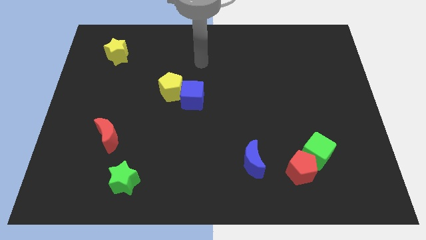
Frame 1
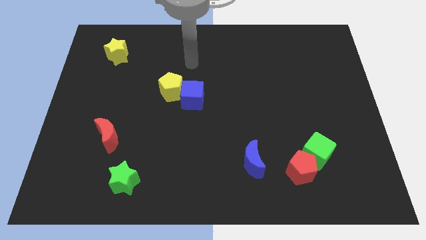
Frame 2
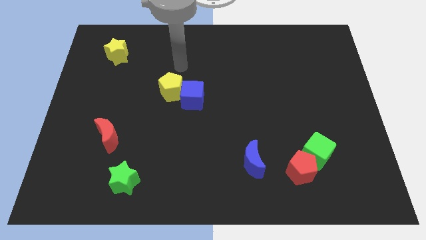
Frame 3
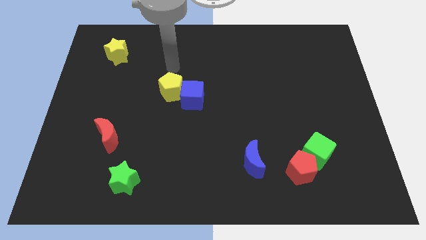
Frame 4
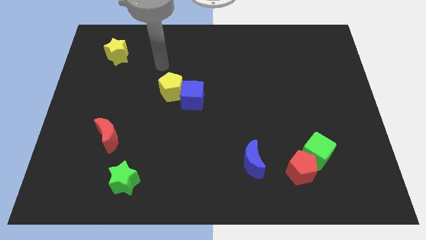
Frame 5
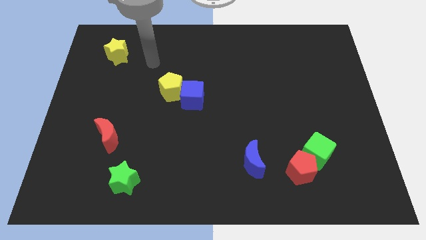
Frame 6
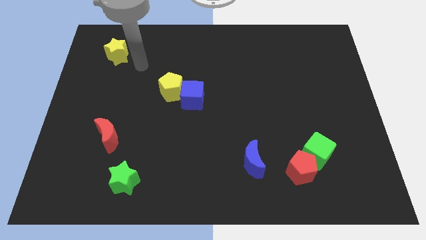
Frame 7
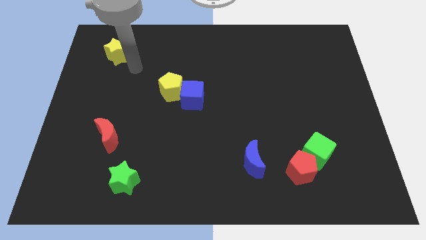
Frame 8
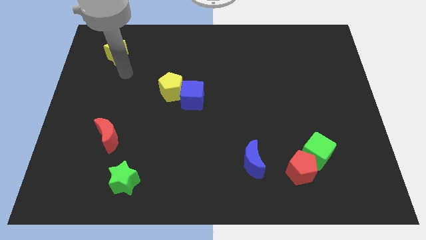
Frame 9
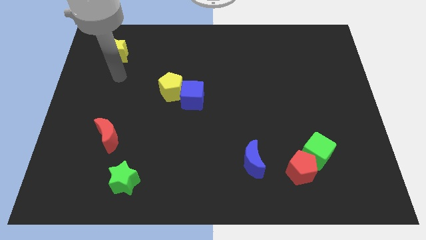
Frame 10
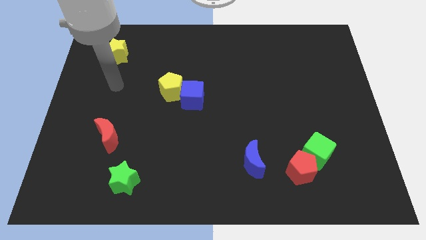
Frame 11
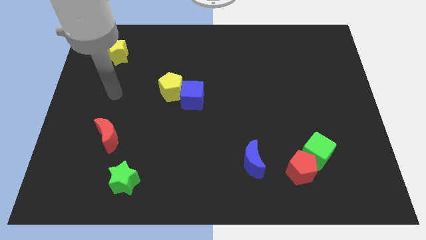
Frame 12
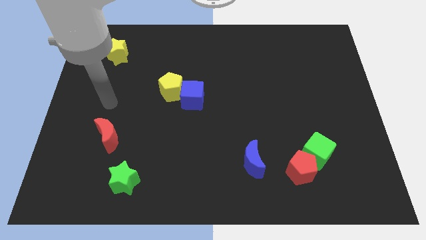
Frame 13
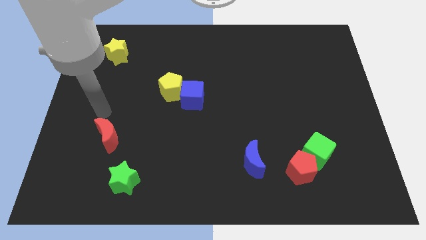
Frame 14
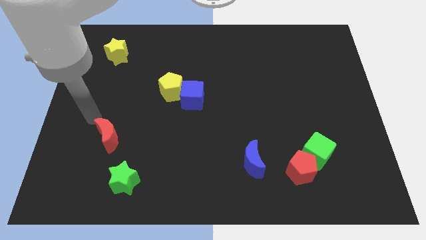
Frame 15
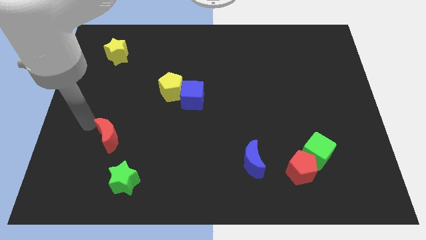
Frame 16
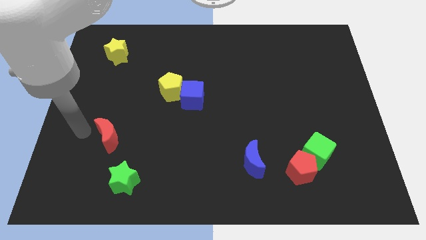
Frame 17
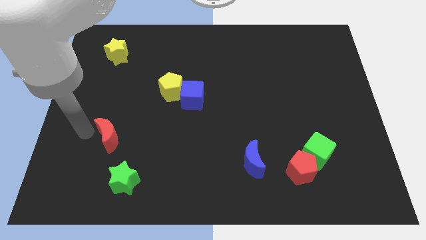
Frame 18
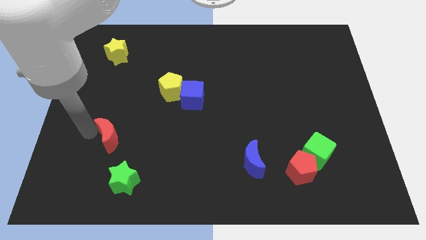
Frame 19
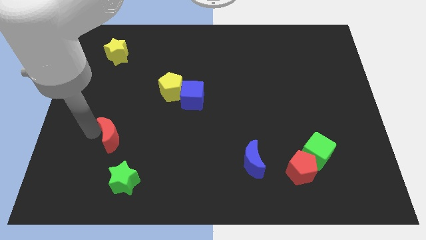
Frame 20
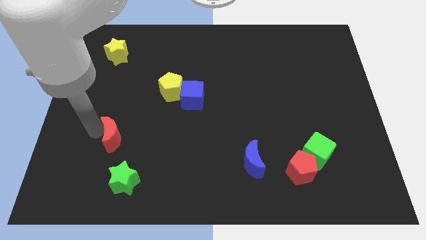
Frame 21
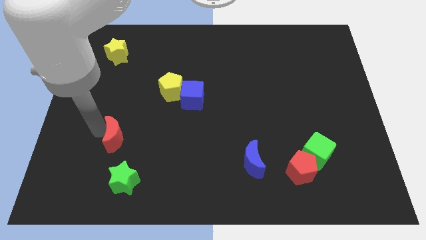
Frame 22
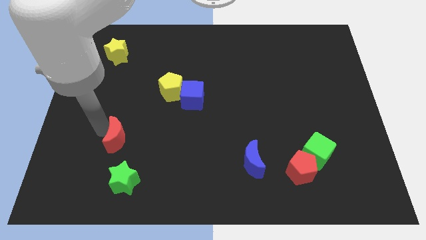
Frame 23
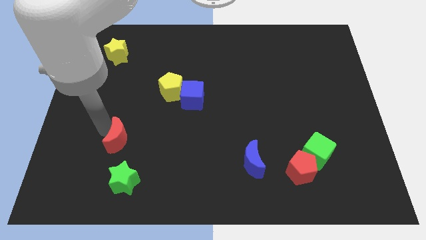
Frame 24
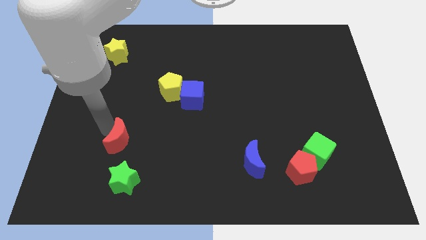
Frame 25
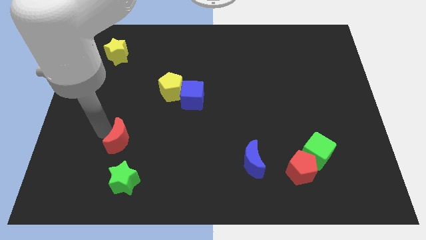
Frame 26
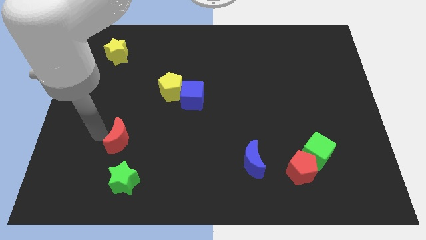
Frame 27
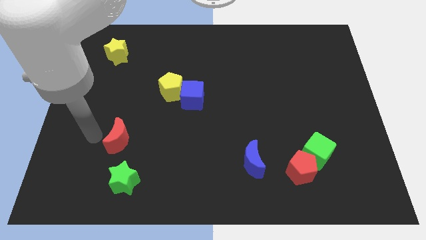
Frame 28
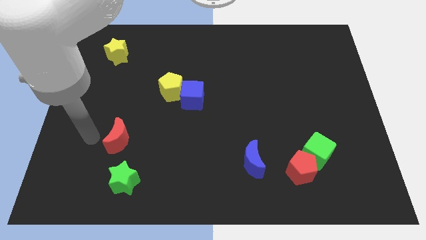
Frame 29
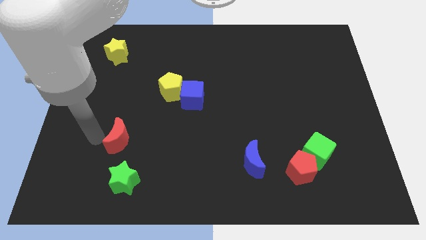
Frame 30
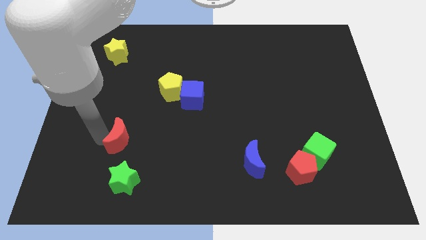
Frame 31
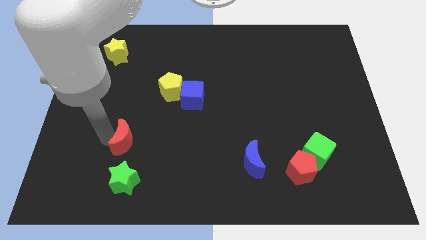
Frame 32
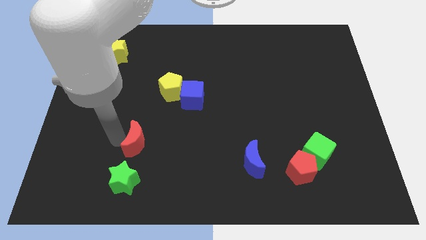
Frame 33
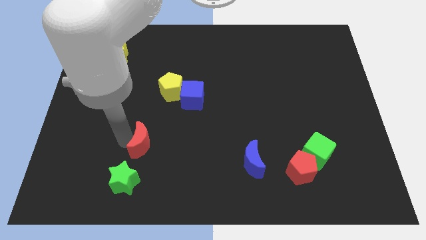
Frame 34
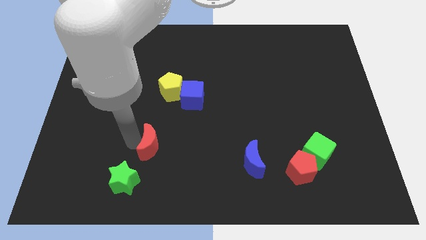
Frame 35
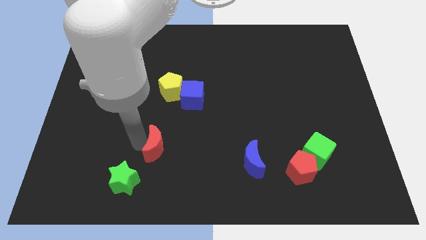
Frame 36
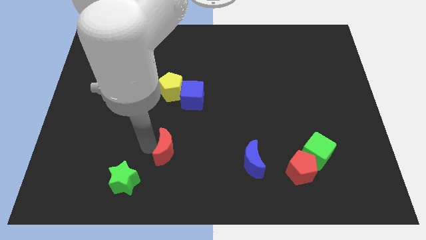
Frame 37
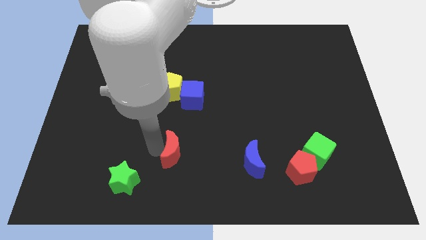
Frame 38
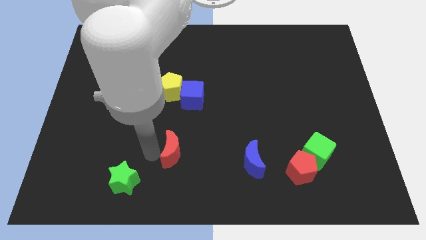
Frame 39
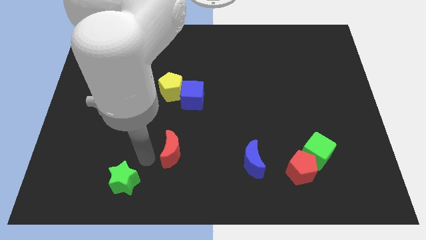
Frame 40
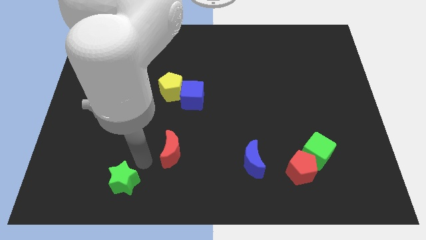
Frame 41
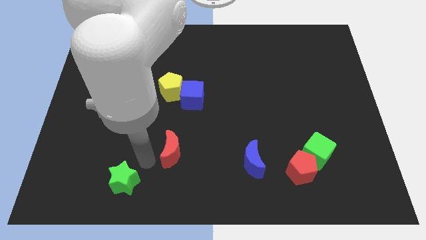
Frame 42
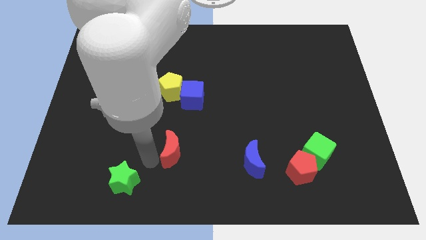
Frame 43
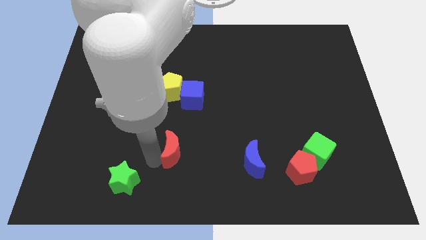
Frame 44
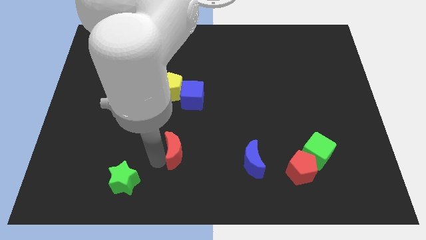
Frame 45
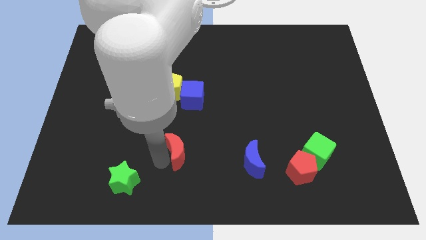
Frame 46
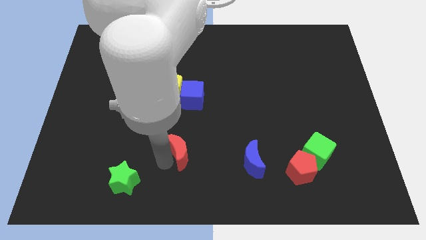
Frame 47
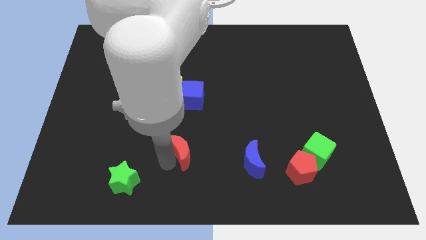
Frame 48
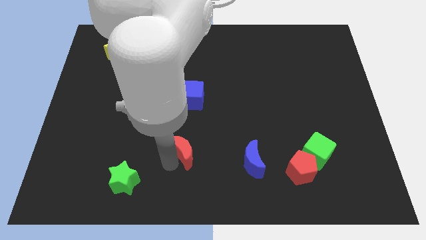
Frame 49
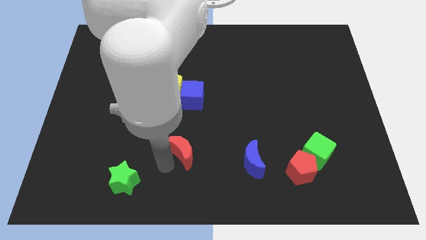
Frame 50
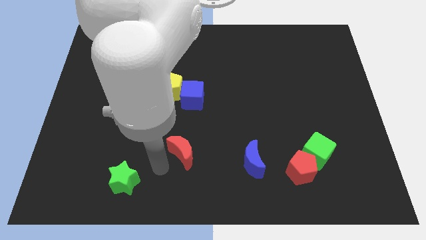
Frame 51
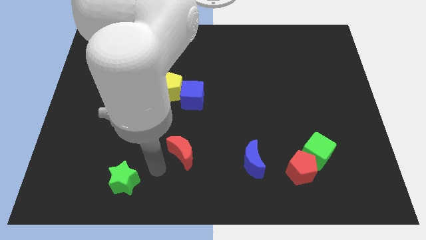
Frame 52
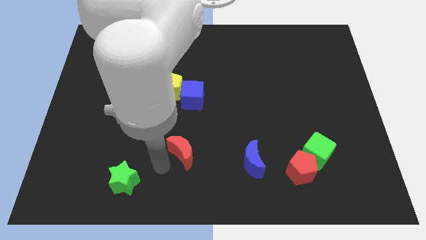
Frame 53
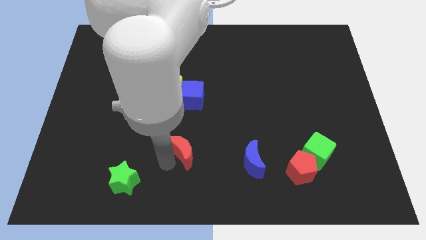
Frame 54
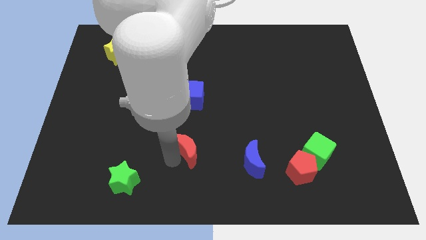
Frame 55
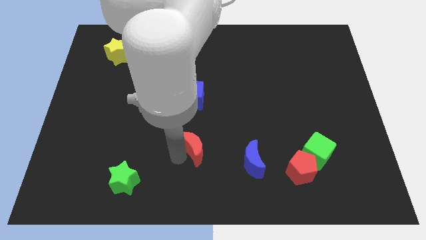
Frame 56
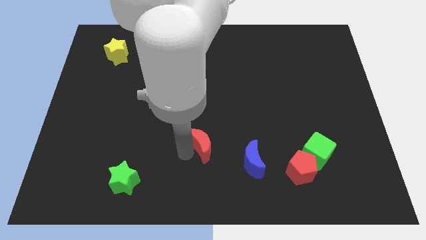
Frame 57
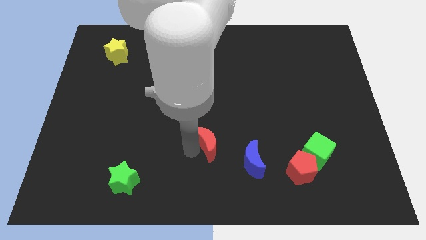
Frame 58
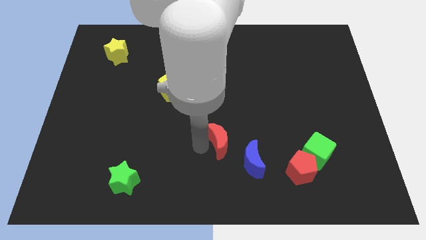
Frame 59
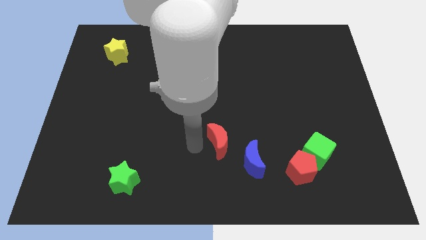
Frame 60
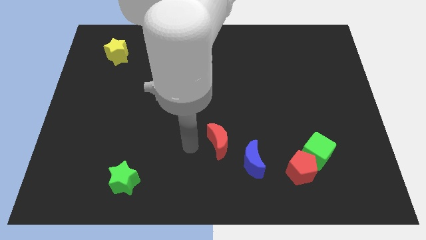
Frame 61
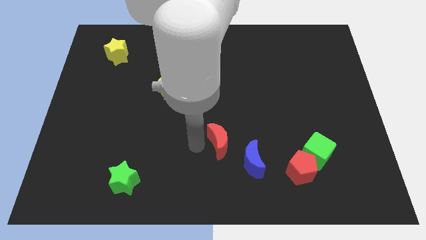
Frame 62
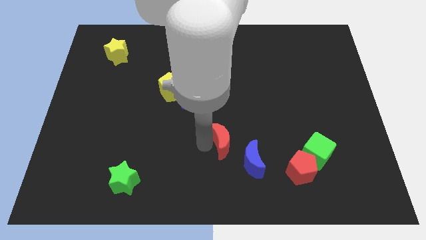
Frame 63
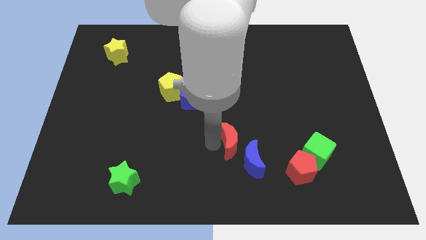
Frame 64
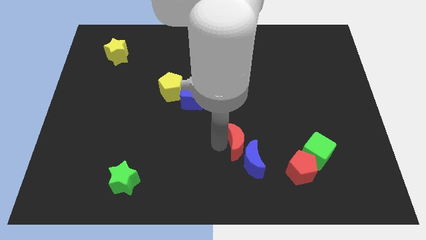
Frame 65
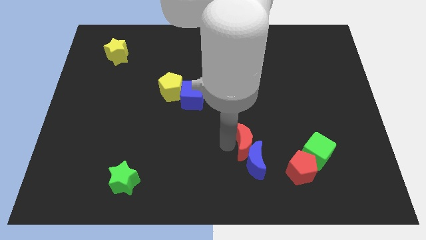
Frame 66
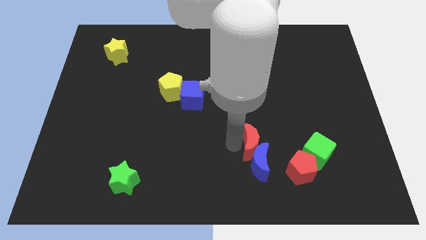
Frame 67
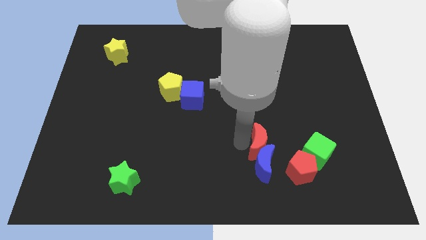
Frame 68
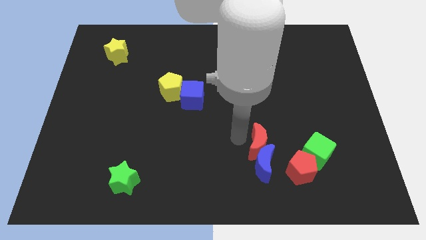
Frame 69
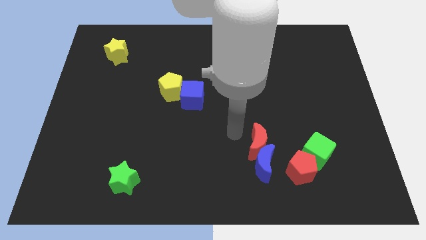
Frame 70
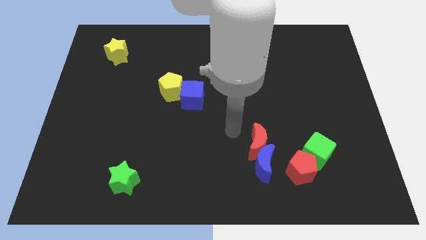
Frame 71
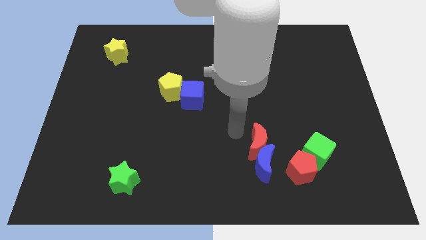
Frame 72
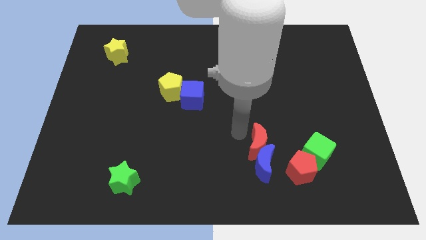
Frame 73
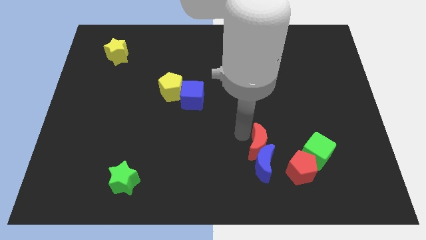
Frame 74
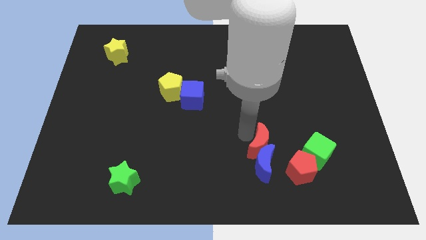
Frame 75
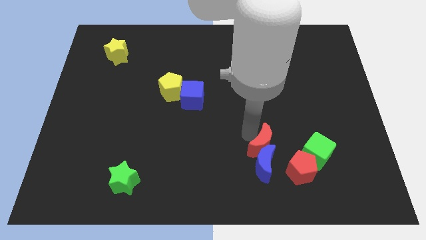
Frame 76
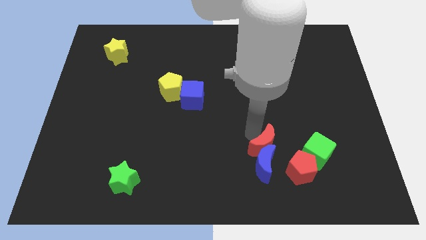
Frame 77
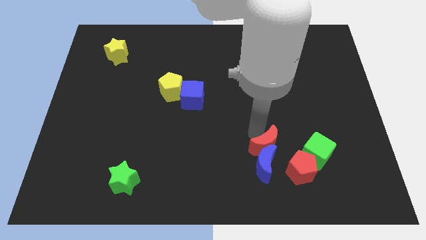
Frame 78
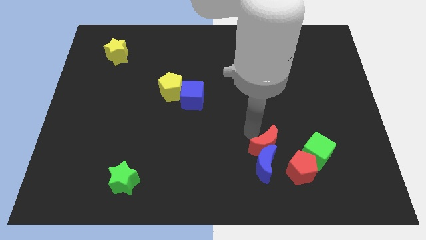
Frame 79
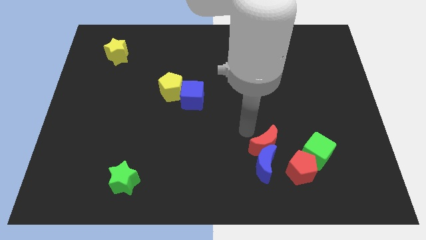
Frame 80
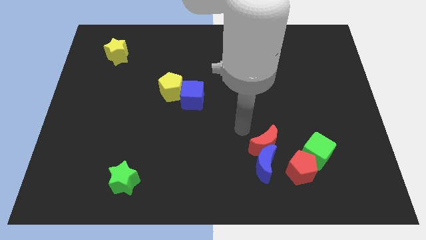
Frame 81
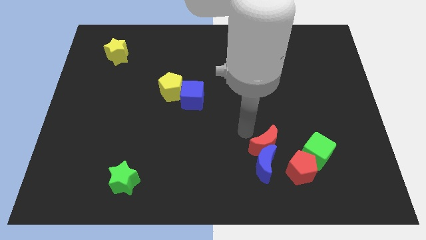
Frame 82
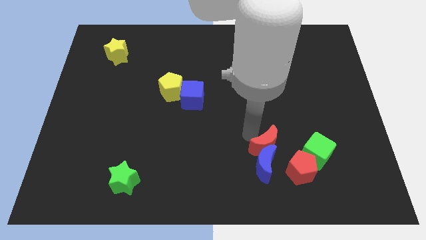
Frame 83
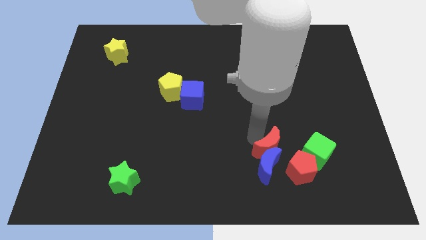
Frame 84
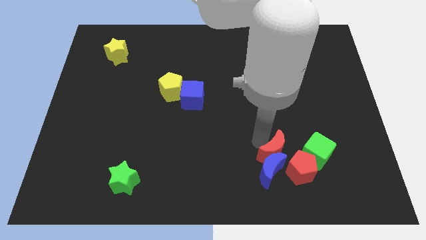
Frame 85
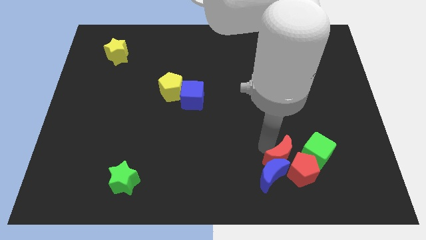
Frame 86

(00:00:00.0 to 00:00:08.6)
put the red moon towards the red pentagon
